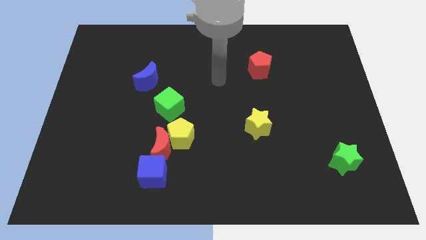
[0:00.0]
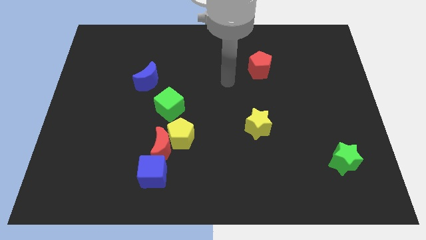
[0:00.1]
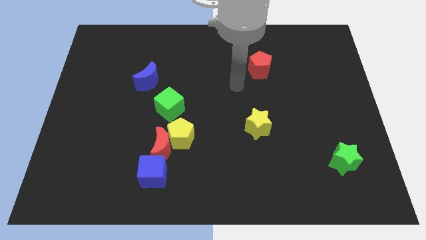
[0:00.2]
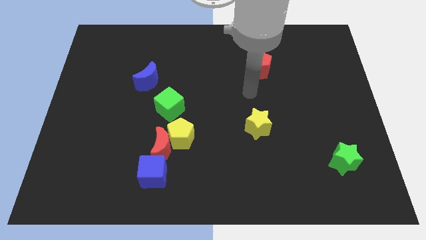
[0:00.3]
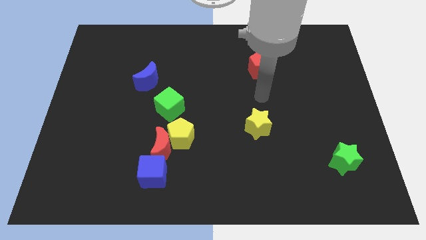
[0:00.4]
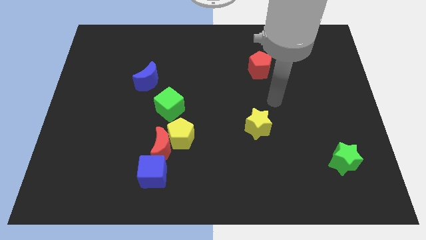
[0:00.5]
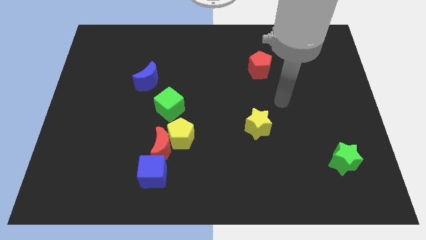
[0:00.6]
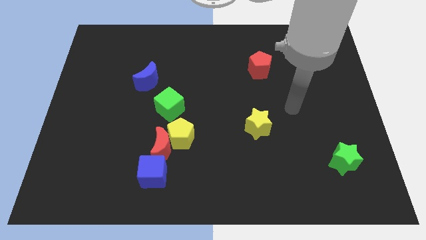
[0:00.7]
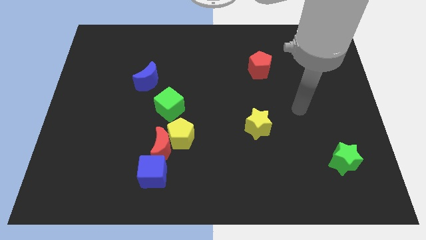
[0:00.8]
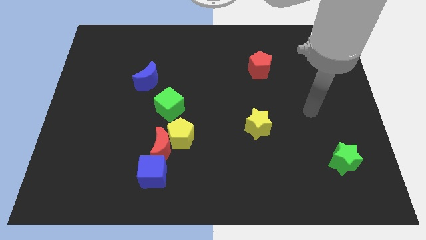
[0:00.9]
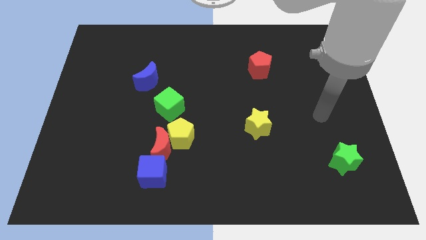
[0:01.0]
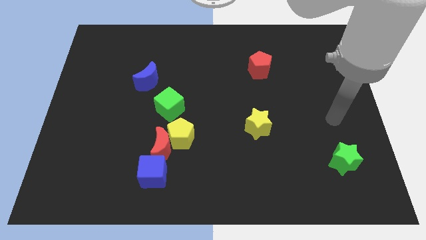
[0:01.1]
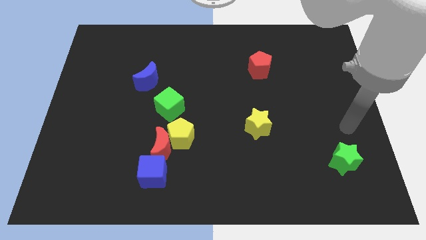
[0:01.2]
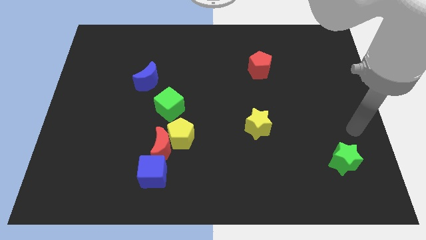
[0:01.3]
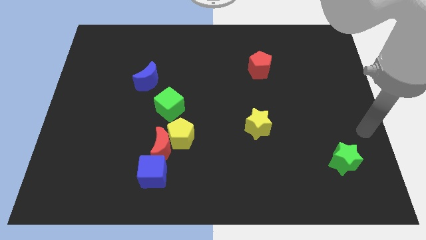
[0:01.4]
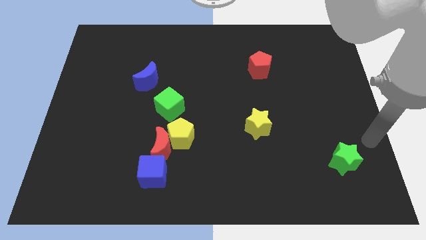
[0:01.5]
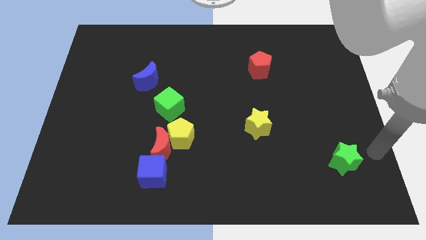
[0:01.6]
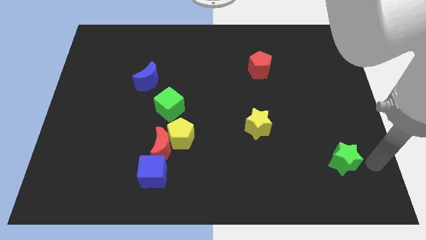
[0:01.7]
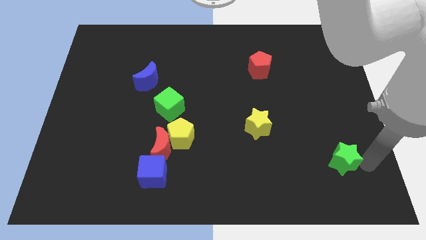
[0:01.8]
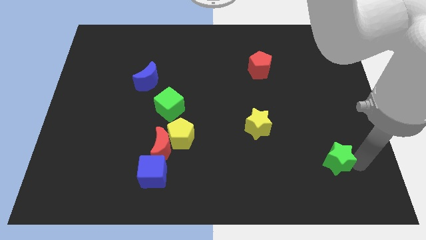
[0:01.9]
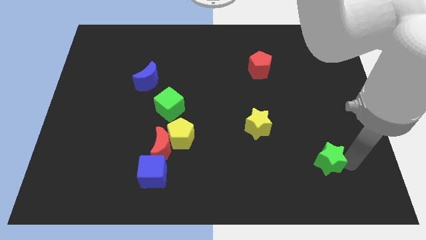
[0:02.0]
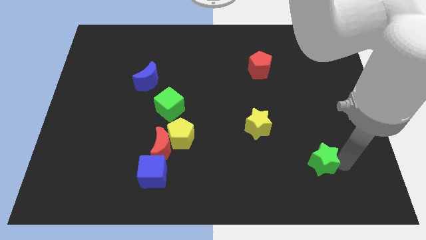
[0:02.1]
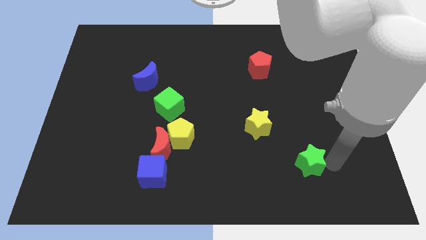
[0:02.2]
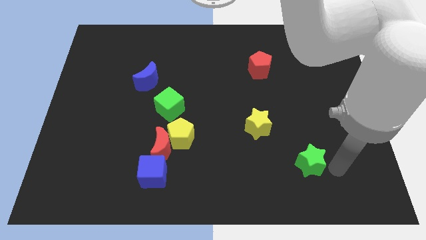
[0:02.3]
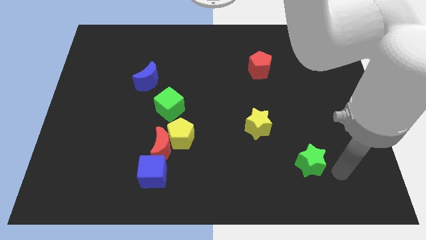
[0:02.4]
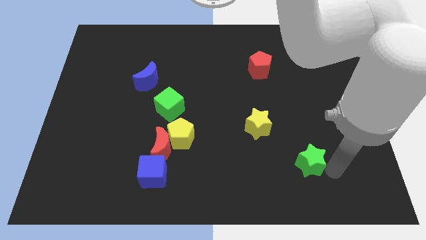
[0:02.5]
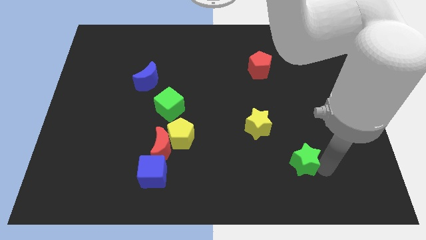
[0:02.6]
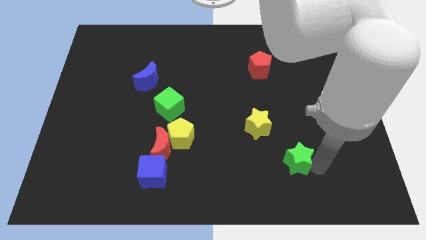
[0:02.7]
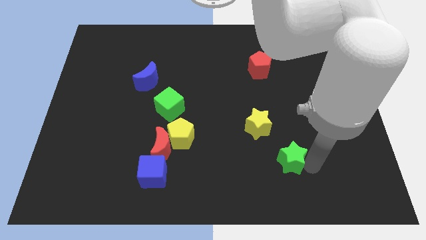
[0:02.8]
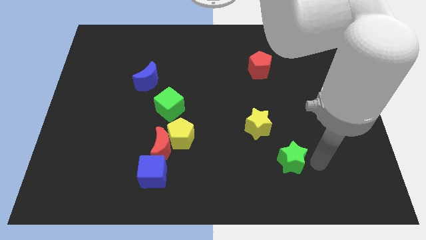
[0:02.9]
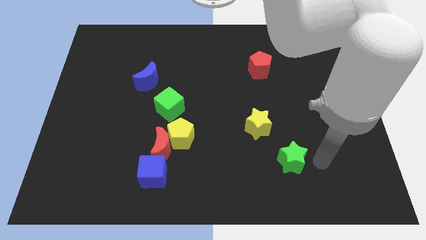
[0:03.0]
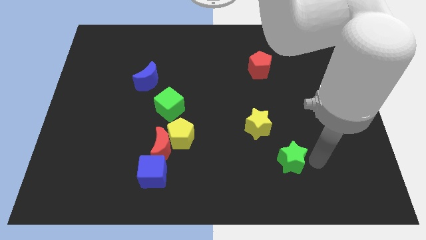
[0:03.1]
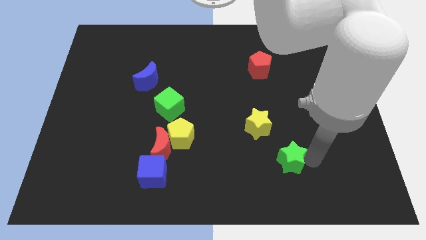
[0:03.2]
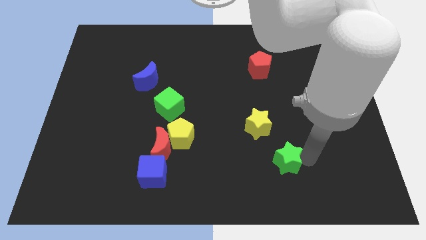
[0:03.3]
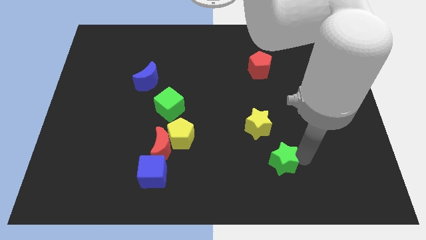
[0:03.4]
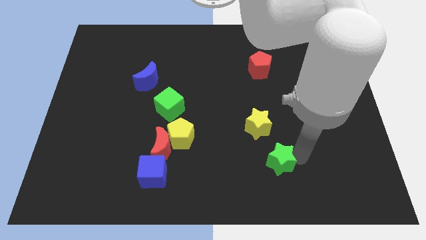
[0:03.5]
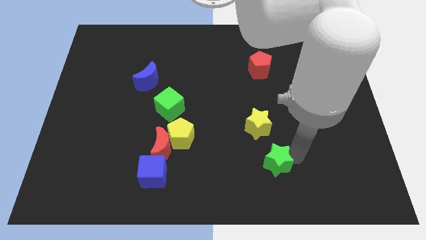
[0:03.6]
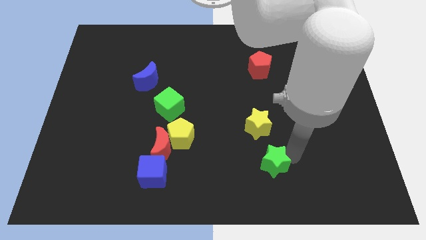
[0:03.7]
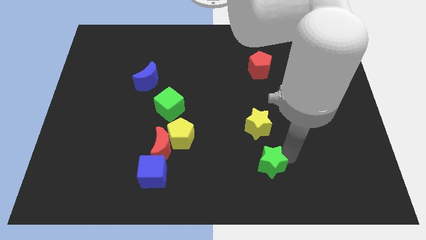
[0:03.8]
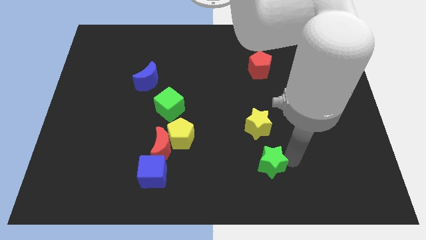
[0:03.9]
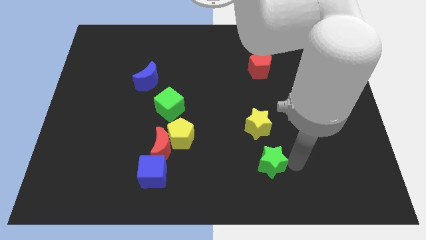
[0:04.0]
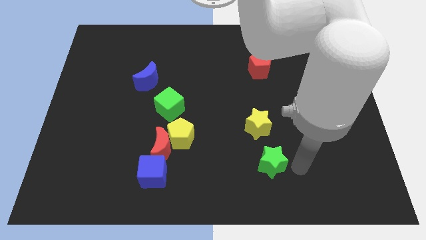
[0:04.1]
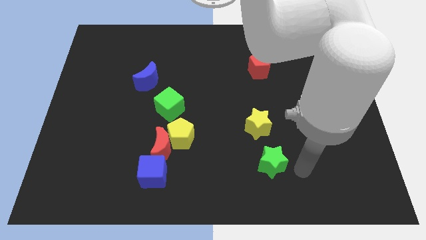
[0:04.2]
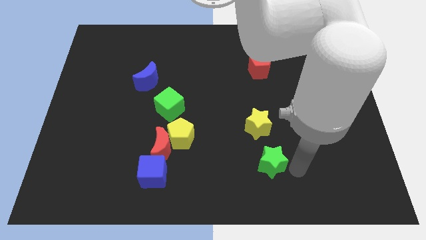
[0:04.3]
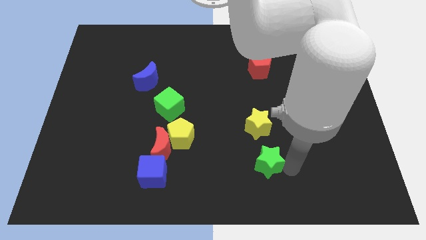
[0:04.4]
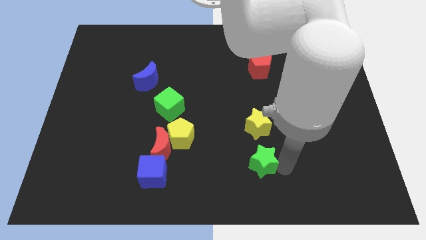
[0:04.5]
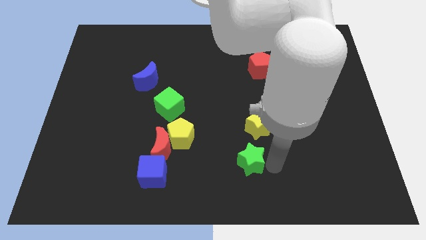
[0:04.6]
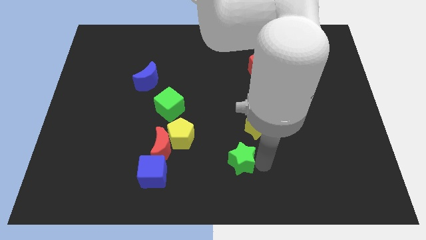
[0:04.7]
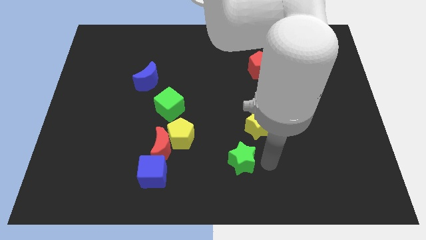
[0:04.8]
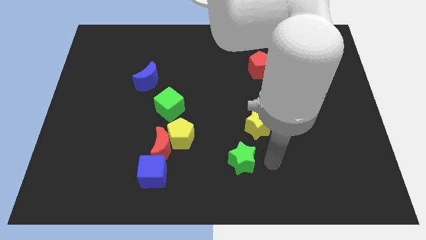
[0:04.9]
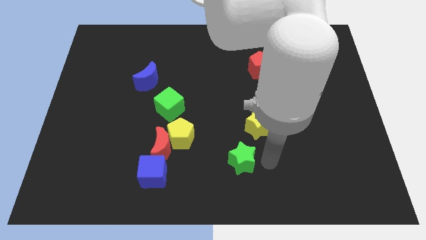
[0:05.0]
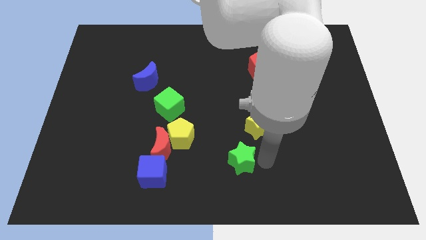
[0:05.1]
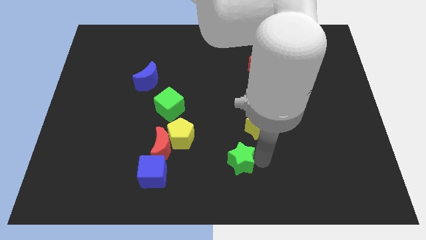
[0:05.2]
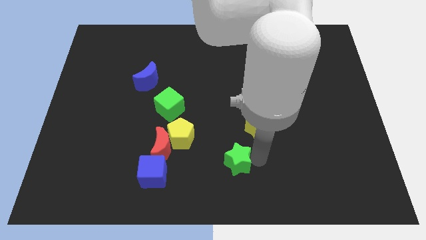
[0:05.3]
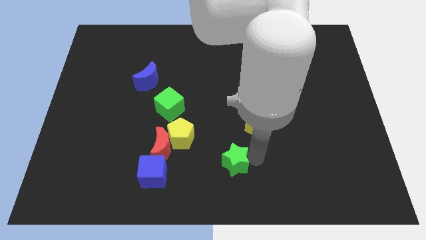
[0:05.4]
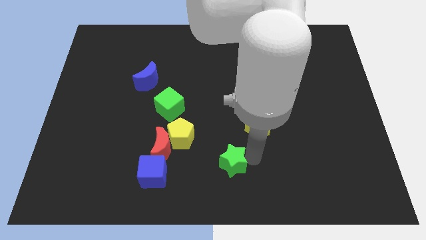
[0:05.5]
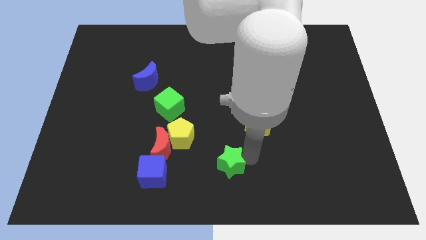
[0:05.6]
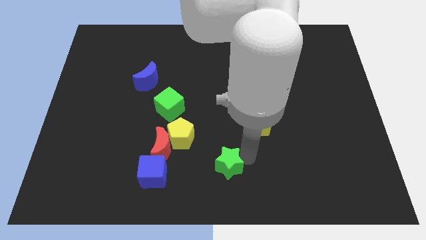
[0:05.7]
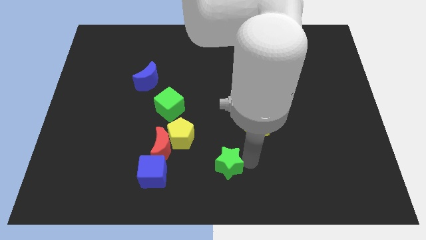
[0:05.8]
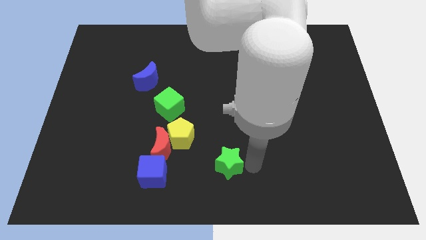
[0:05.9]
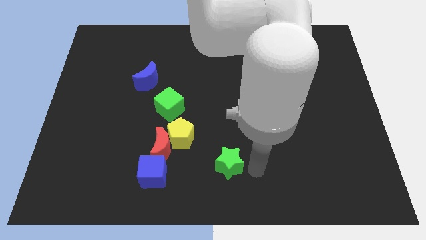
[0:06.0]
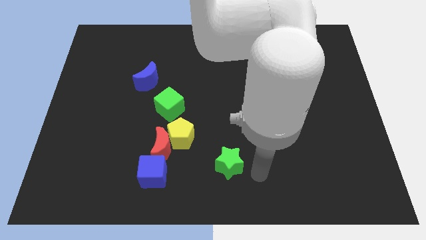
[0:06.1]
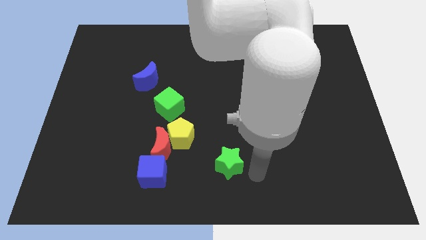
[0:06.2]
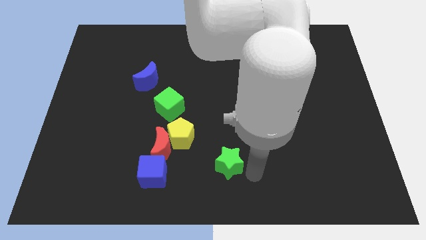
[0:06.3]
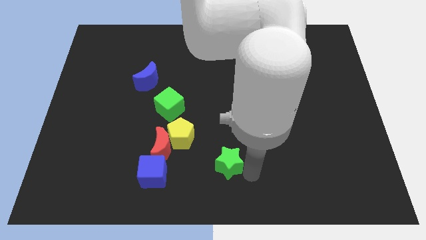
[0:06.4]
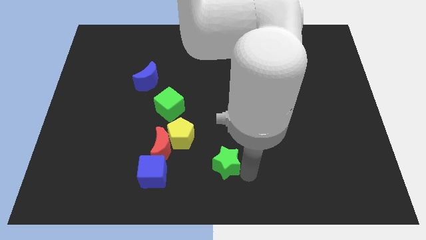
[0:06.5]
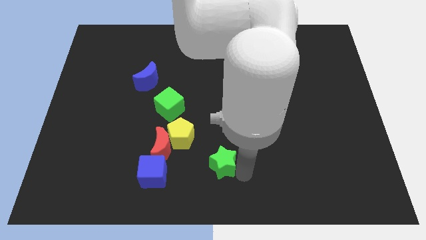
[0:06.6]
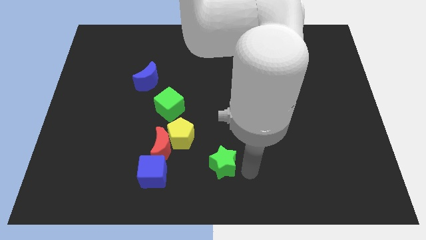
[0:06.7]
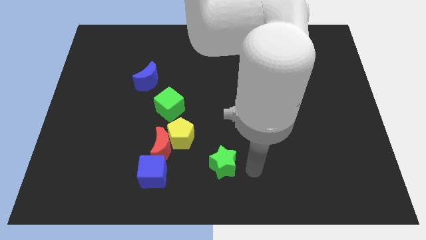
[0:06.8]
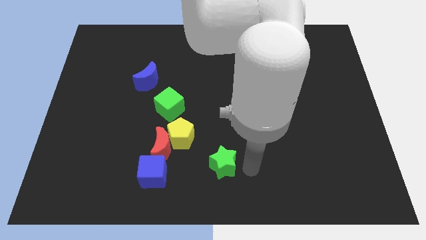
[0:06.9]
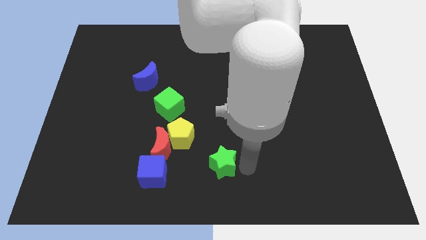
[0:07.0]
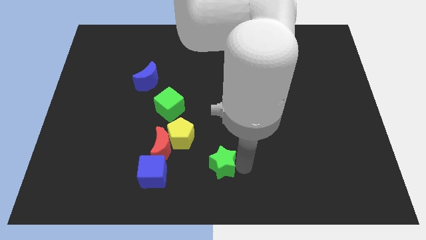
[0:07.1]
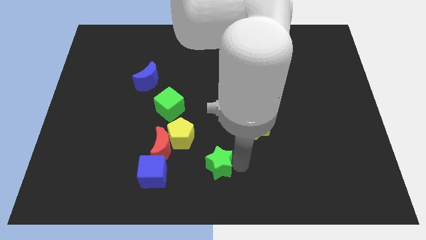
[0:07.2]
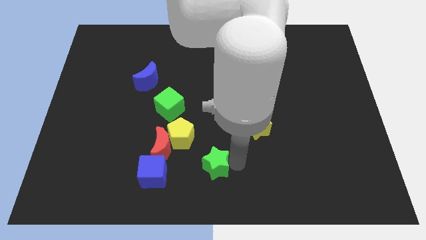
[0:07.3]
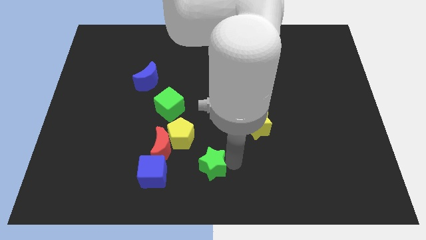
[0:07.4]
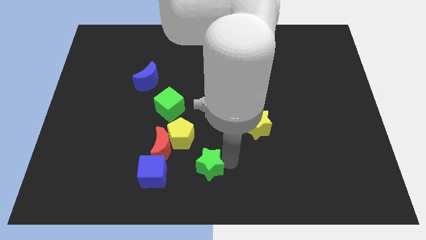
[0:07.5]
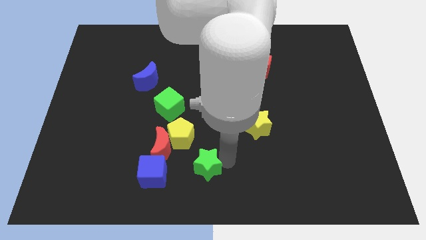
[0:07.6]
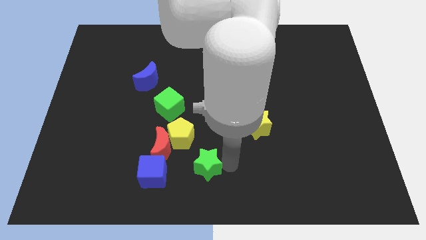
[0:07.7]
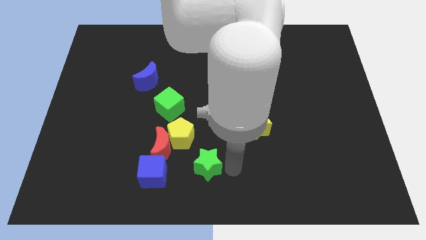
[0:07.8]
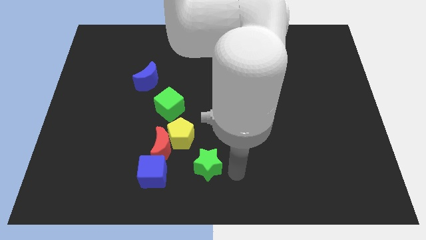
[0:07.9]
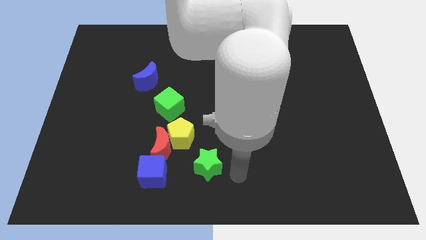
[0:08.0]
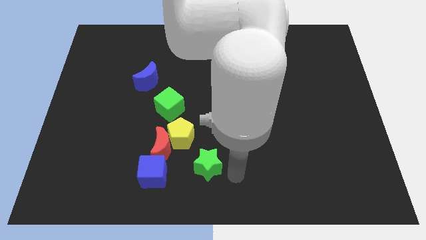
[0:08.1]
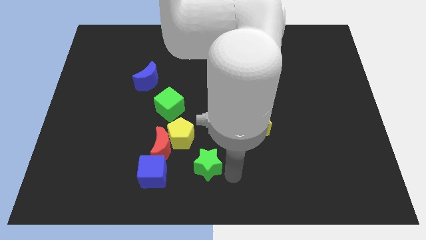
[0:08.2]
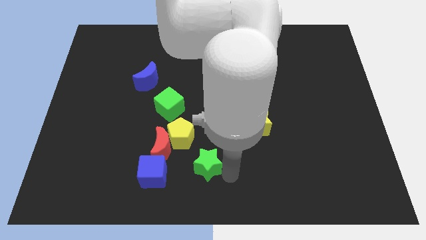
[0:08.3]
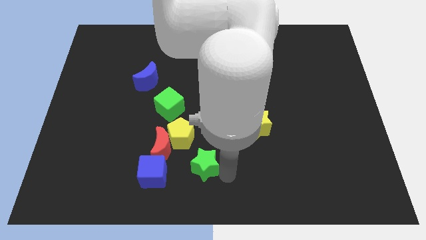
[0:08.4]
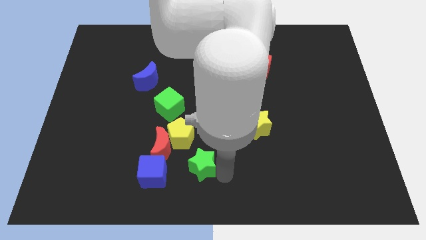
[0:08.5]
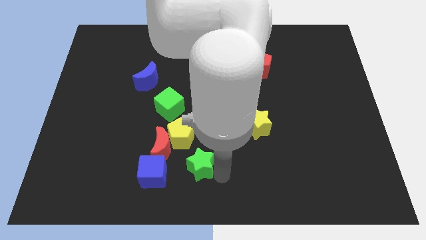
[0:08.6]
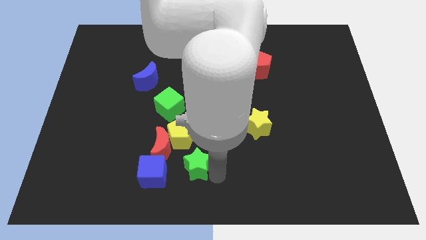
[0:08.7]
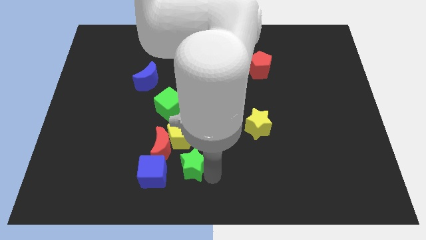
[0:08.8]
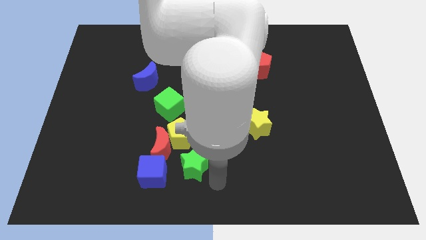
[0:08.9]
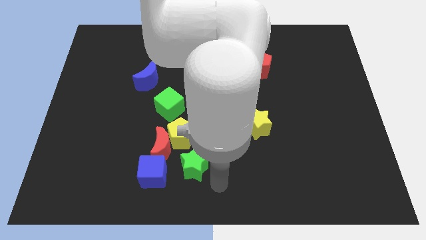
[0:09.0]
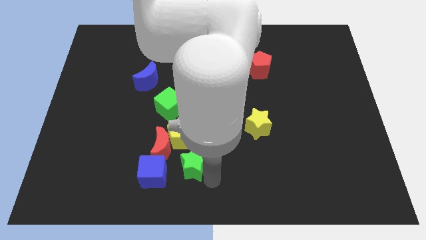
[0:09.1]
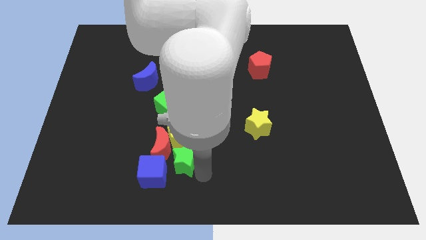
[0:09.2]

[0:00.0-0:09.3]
put the green star next to the red moon
